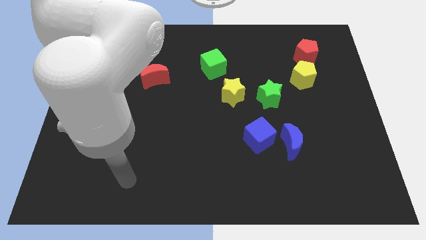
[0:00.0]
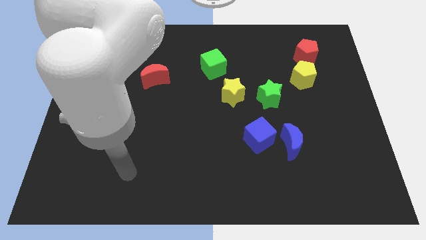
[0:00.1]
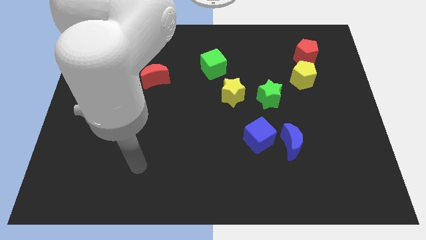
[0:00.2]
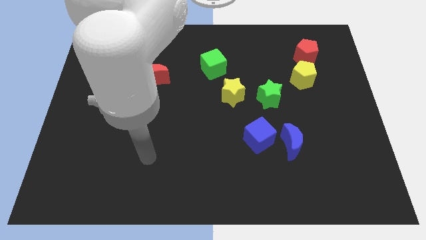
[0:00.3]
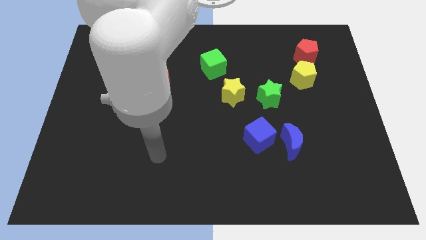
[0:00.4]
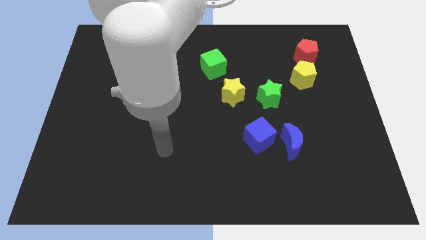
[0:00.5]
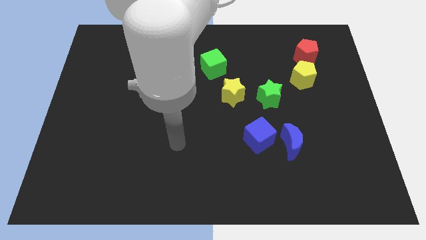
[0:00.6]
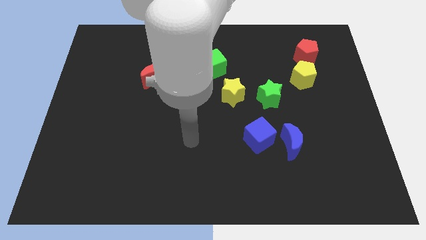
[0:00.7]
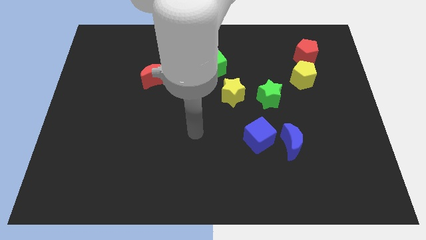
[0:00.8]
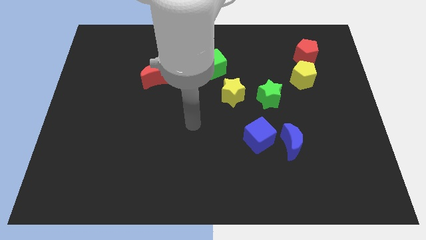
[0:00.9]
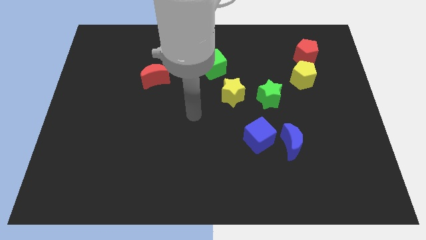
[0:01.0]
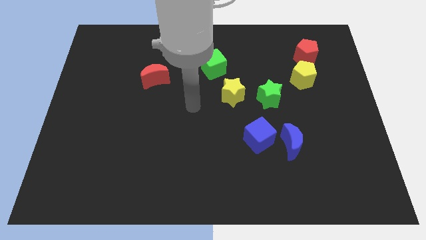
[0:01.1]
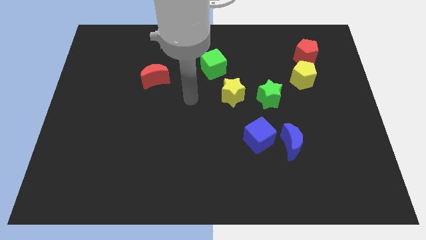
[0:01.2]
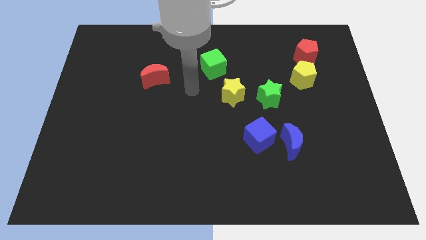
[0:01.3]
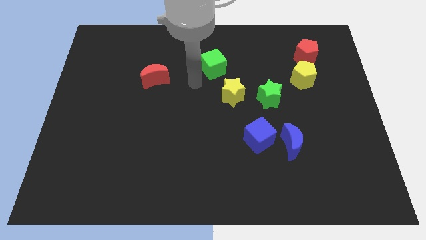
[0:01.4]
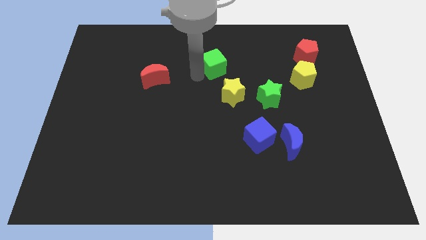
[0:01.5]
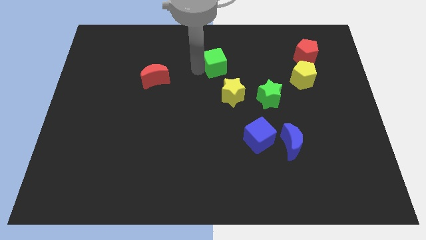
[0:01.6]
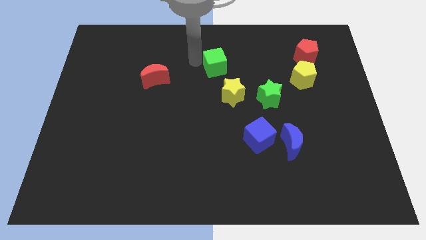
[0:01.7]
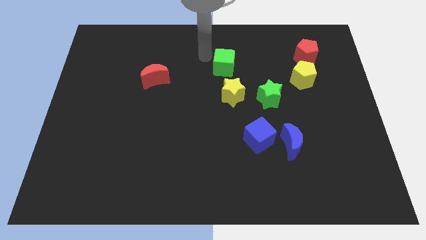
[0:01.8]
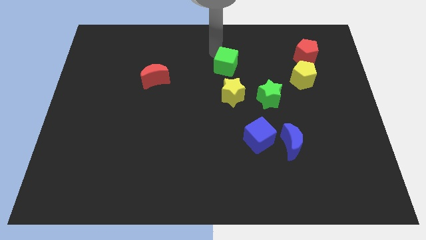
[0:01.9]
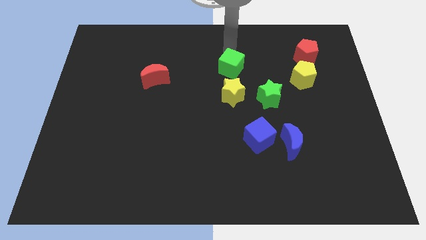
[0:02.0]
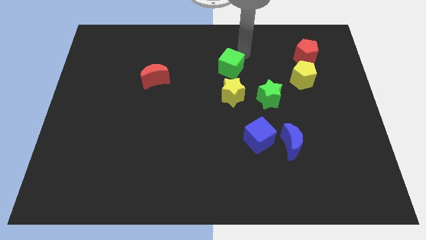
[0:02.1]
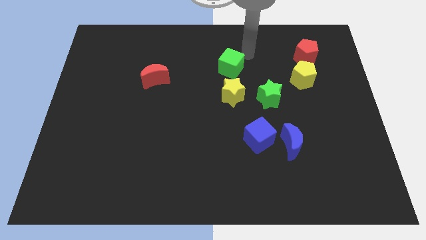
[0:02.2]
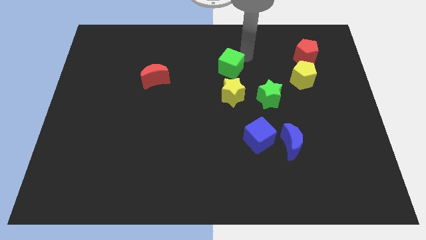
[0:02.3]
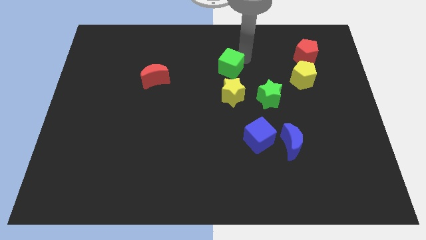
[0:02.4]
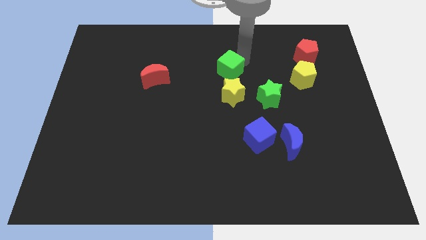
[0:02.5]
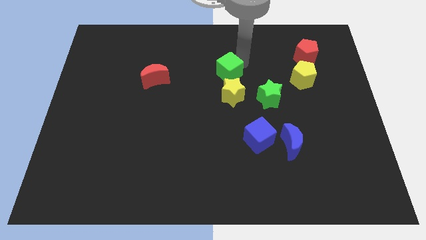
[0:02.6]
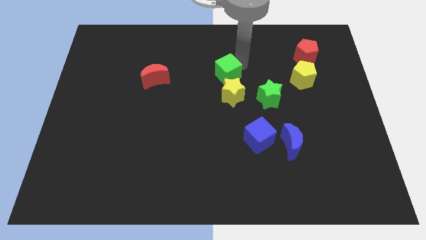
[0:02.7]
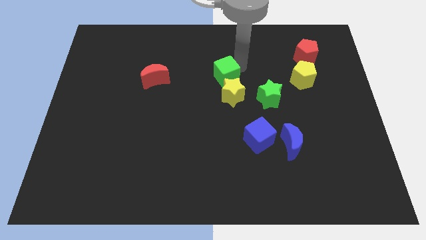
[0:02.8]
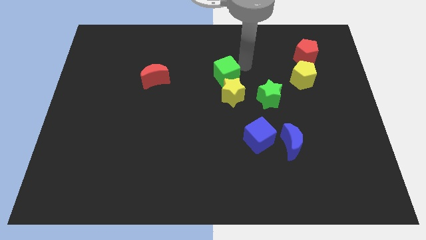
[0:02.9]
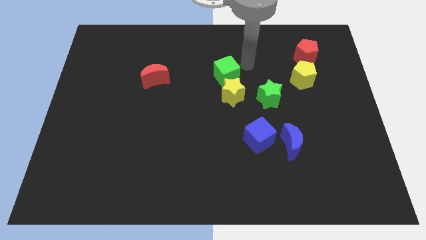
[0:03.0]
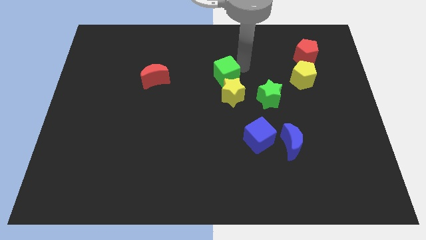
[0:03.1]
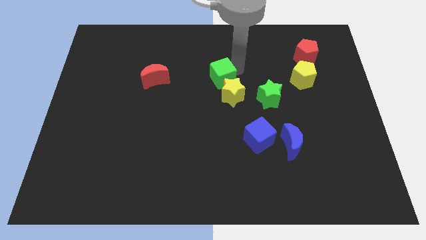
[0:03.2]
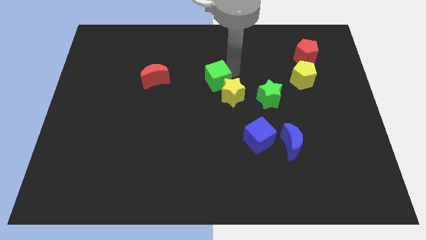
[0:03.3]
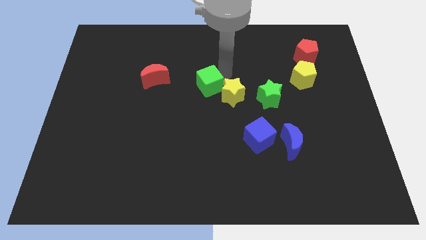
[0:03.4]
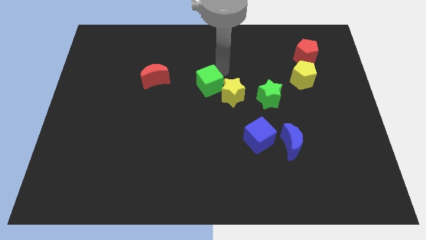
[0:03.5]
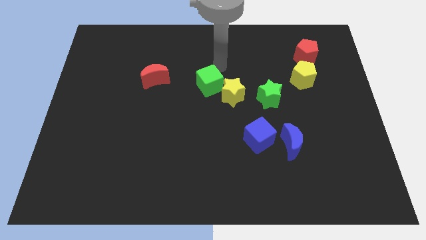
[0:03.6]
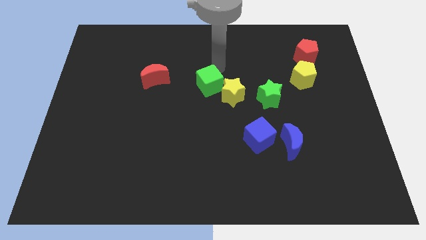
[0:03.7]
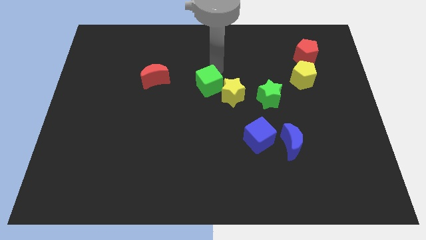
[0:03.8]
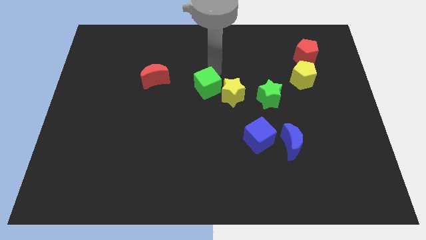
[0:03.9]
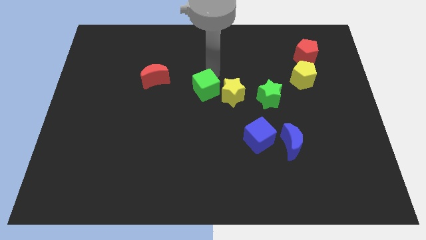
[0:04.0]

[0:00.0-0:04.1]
move the green cube slightly down

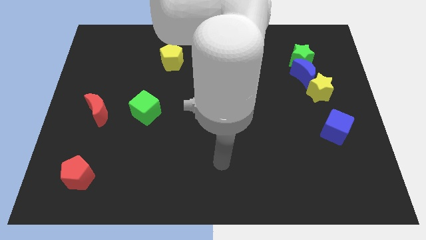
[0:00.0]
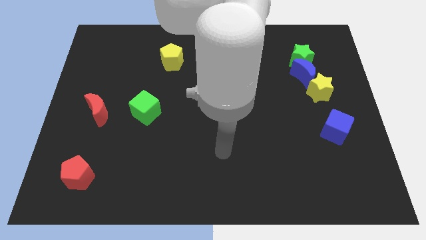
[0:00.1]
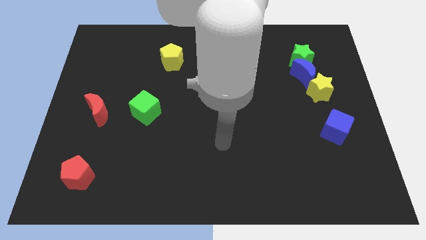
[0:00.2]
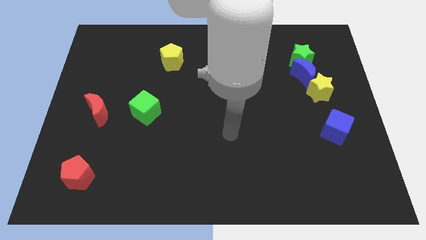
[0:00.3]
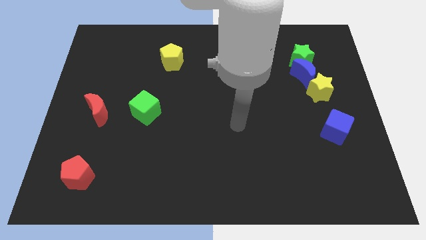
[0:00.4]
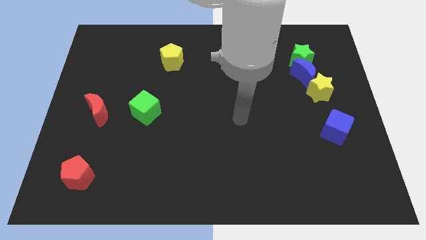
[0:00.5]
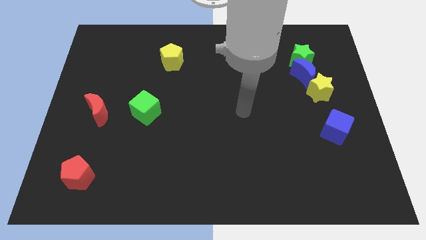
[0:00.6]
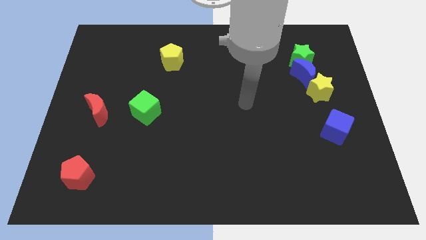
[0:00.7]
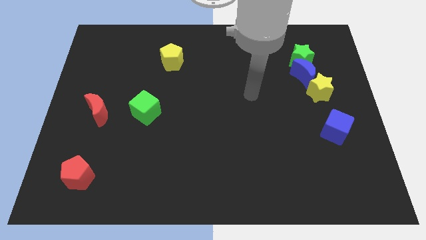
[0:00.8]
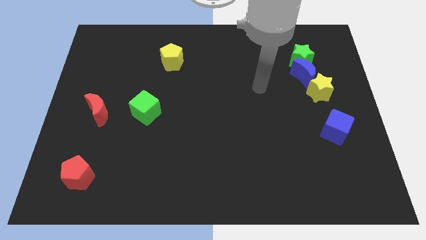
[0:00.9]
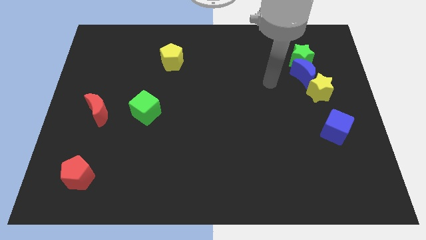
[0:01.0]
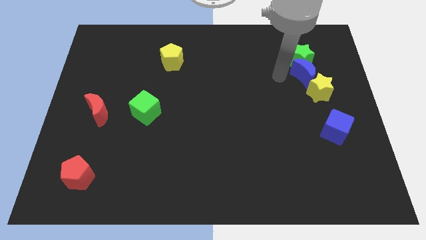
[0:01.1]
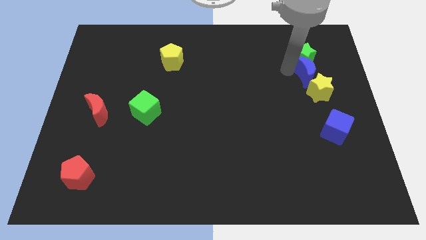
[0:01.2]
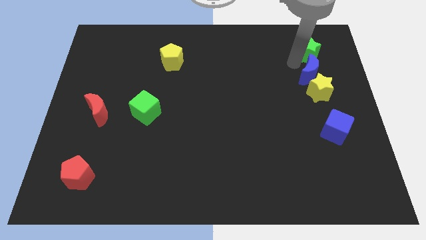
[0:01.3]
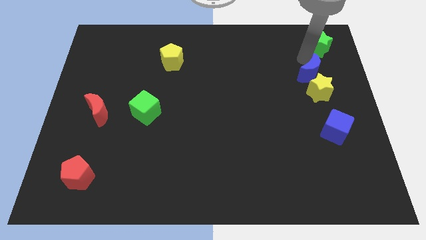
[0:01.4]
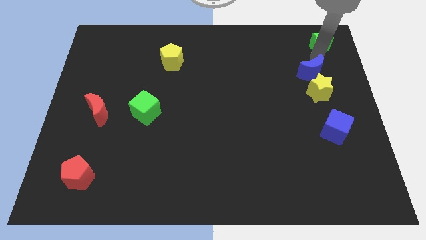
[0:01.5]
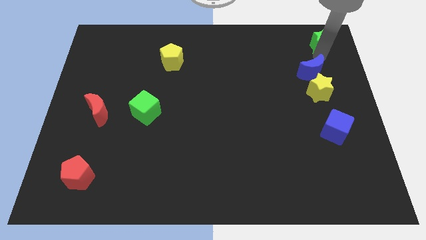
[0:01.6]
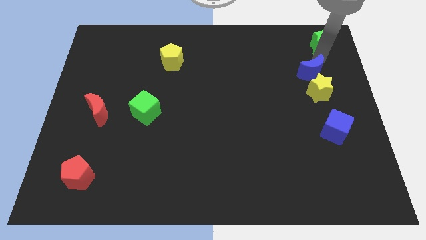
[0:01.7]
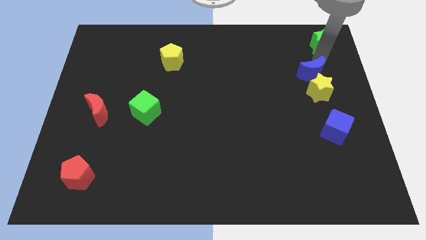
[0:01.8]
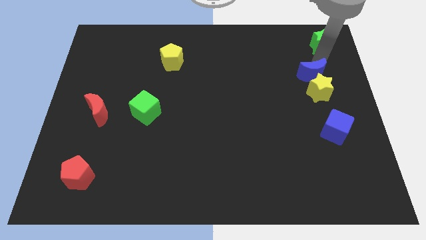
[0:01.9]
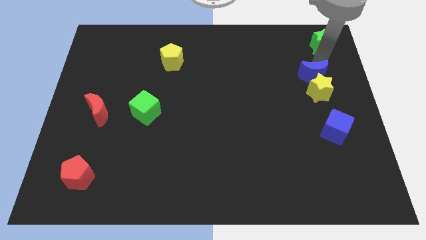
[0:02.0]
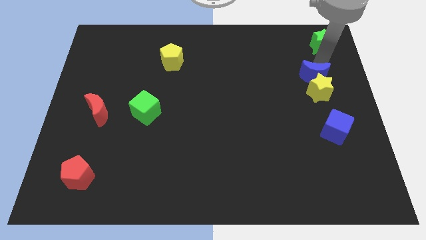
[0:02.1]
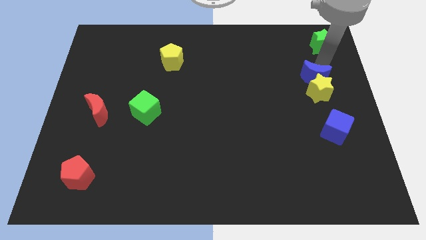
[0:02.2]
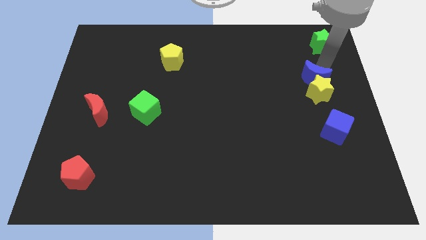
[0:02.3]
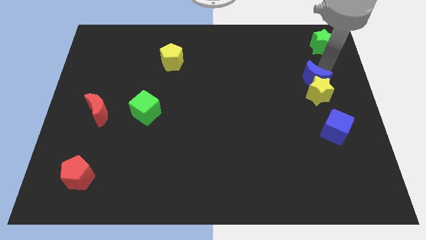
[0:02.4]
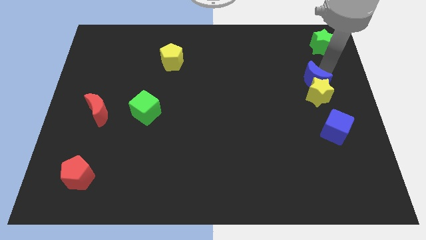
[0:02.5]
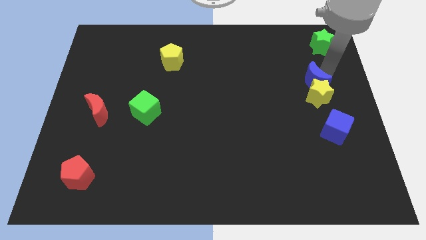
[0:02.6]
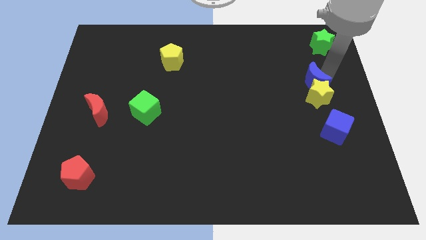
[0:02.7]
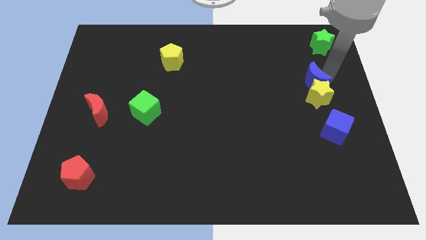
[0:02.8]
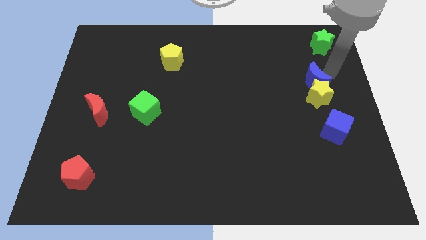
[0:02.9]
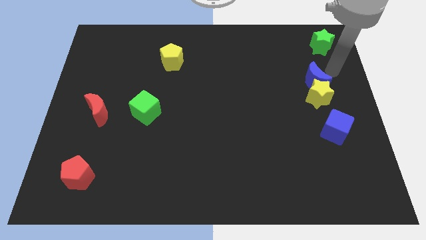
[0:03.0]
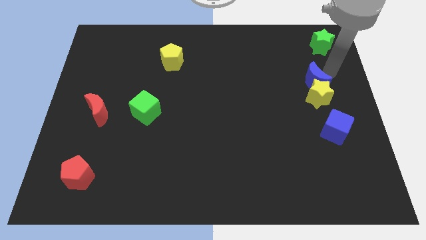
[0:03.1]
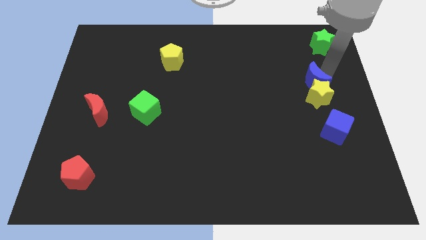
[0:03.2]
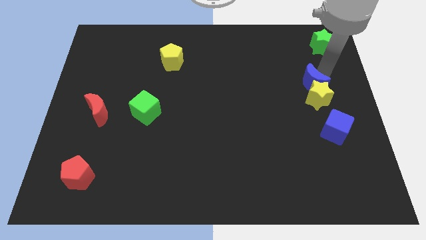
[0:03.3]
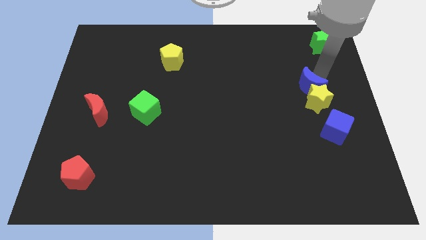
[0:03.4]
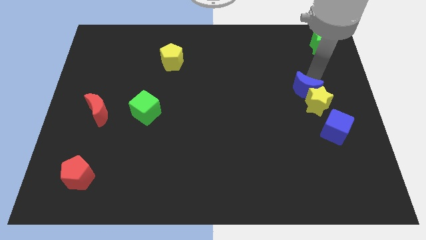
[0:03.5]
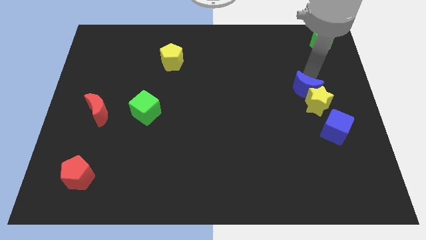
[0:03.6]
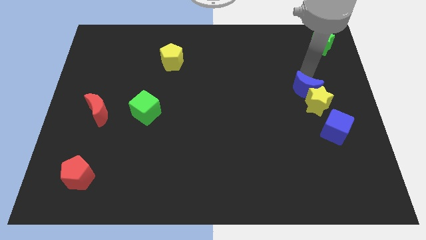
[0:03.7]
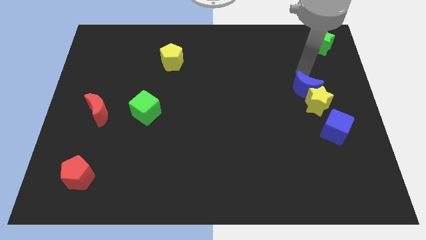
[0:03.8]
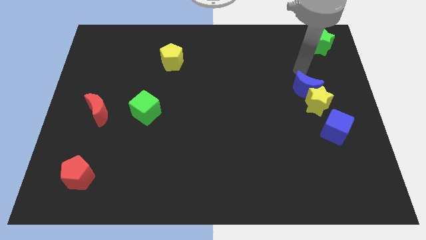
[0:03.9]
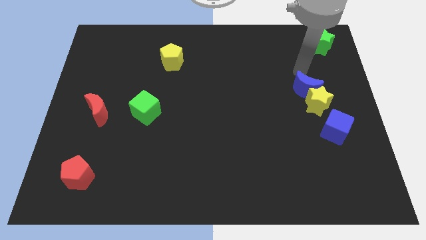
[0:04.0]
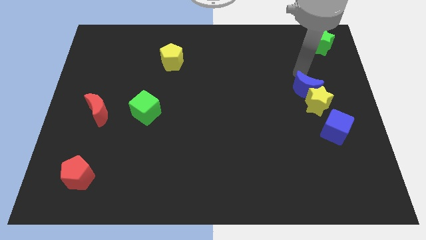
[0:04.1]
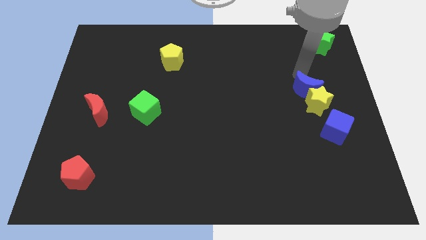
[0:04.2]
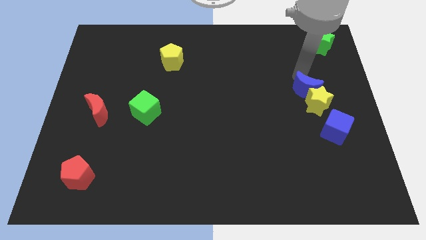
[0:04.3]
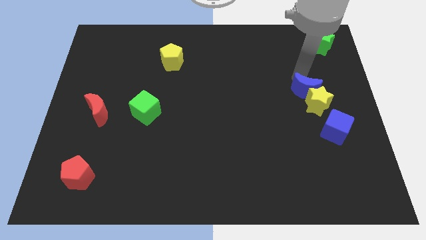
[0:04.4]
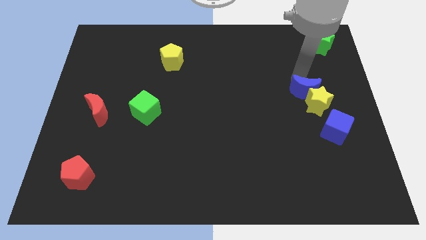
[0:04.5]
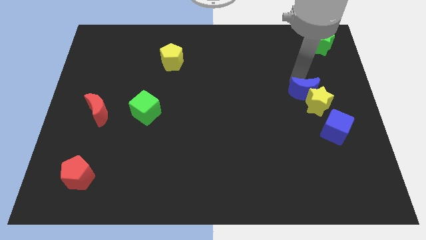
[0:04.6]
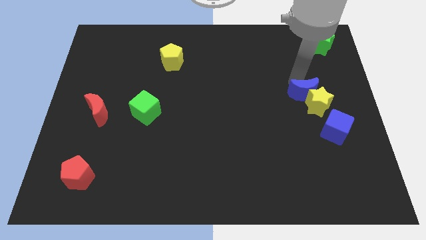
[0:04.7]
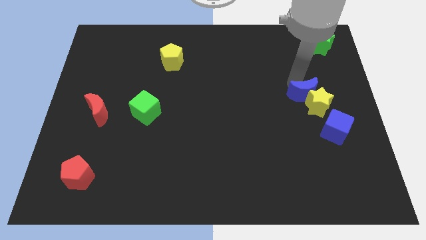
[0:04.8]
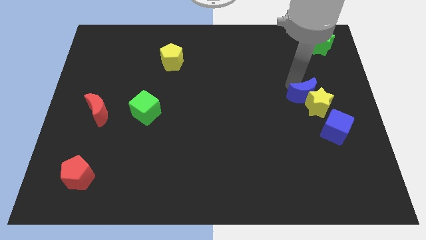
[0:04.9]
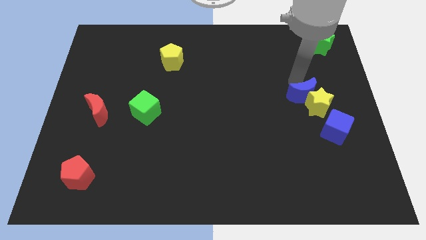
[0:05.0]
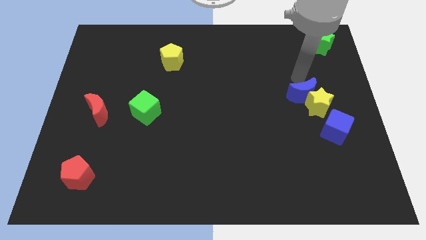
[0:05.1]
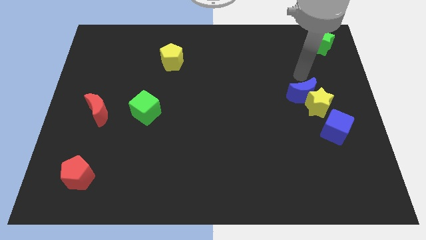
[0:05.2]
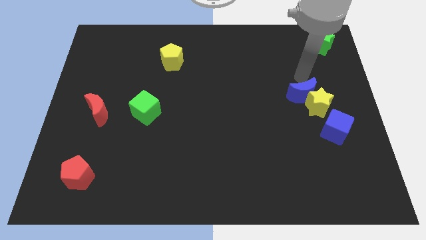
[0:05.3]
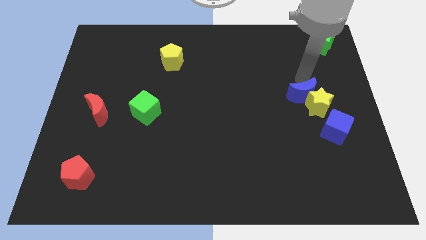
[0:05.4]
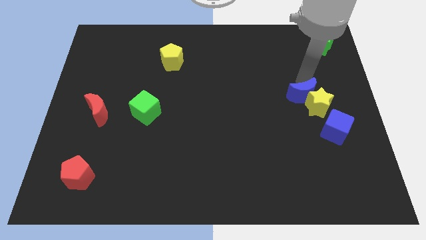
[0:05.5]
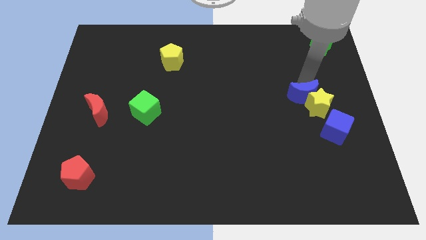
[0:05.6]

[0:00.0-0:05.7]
slightly move the blue moon downwards
